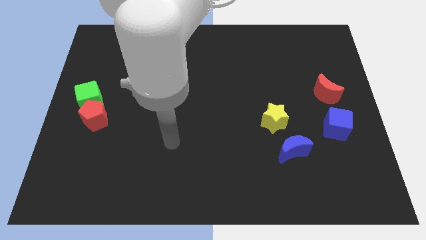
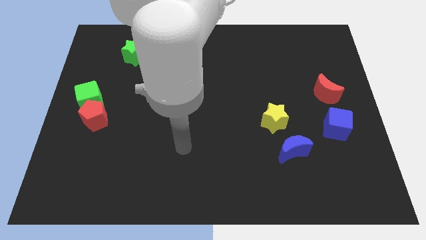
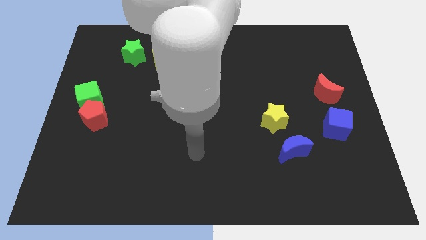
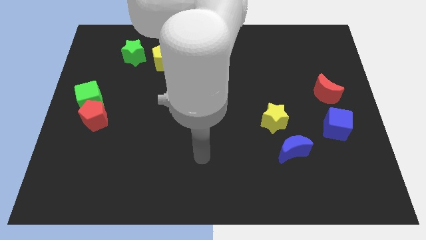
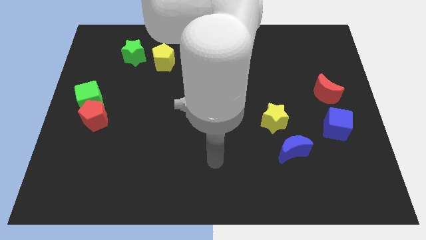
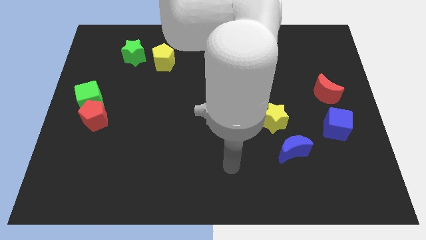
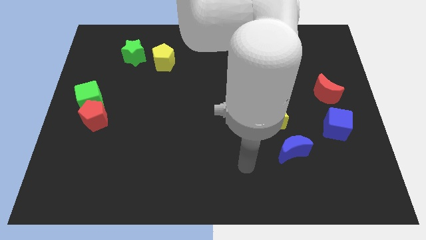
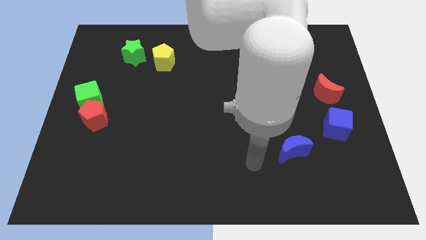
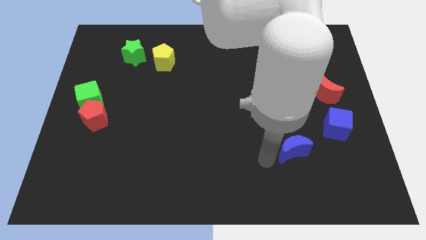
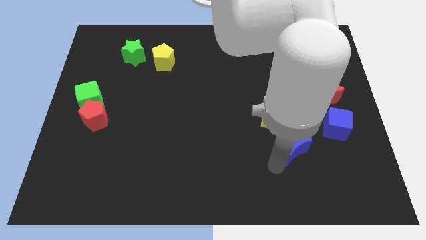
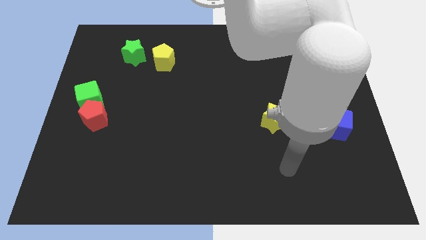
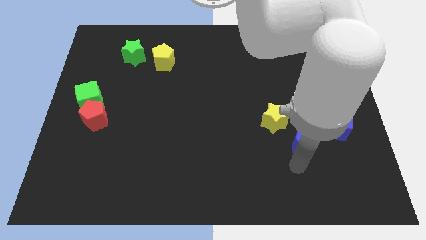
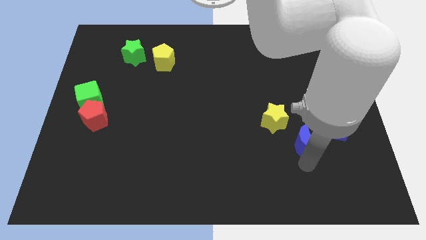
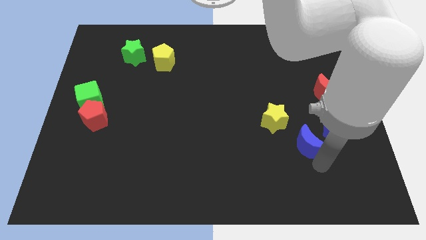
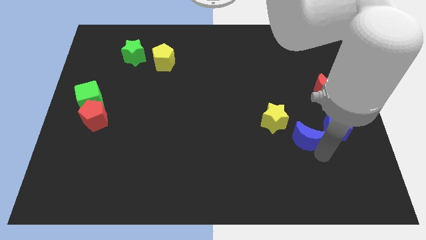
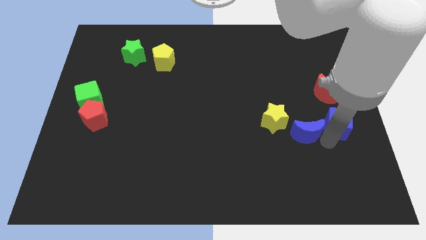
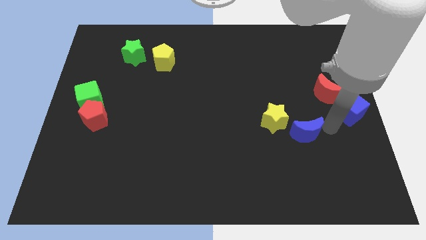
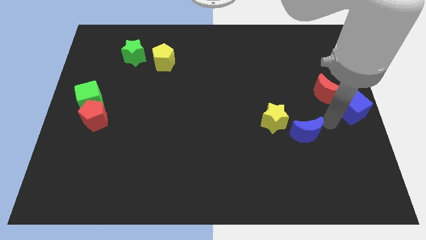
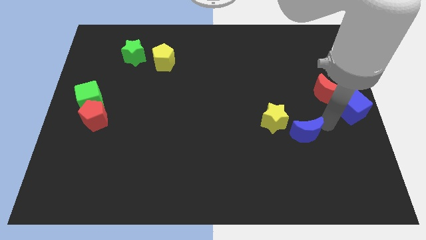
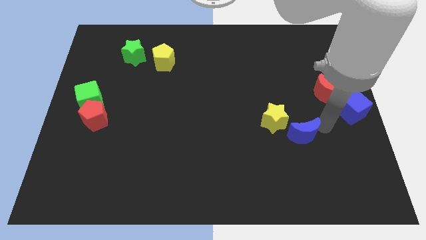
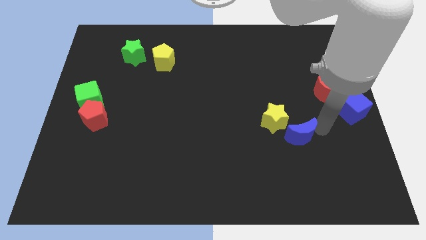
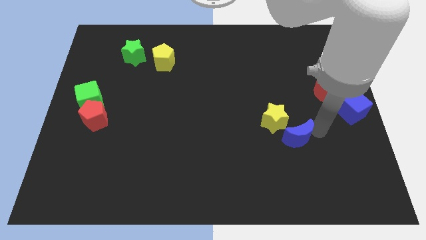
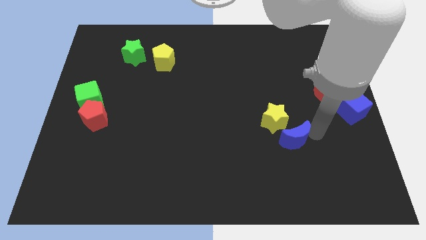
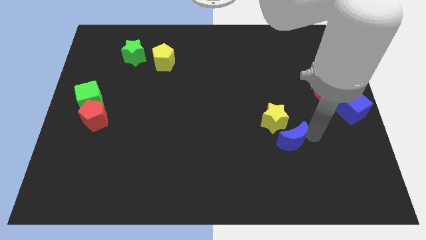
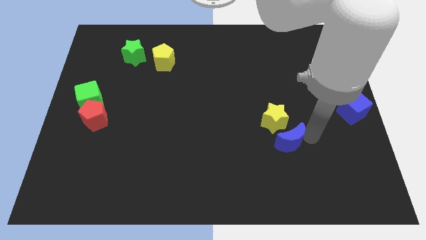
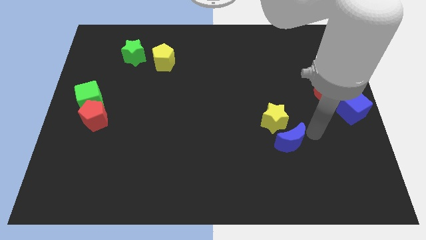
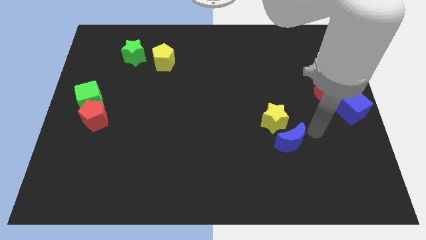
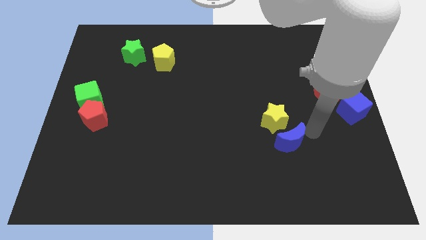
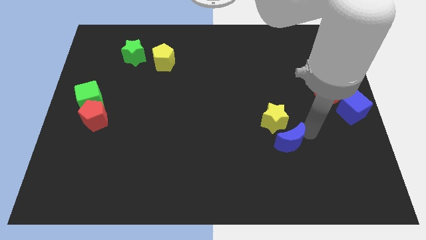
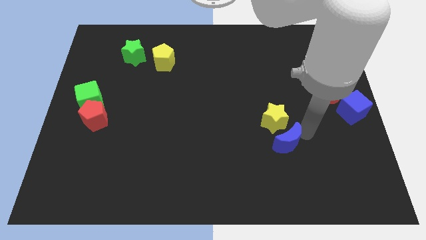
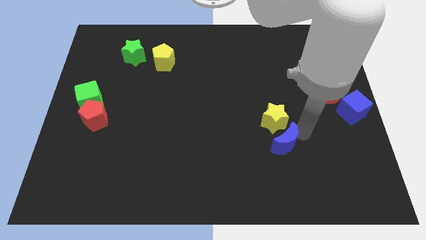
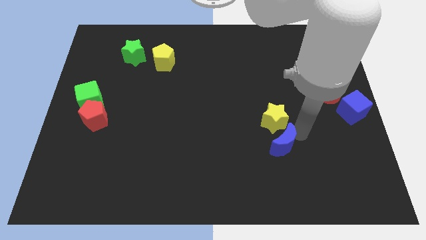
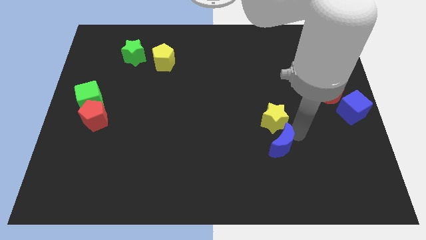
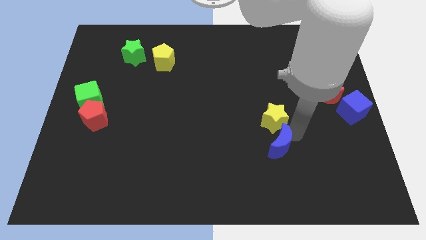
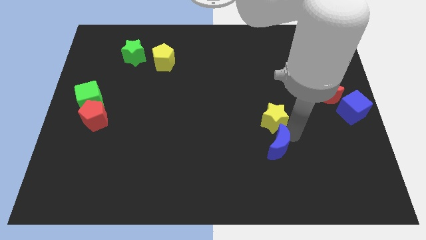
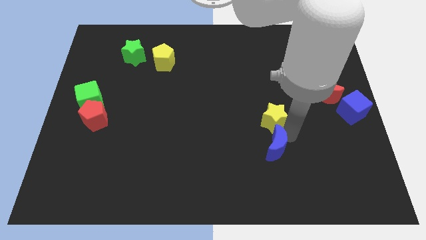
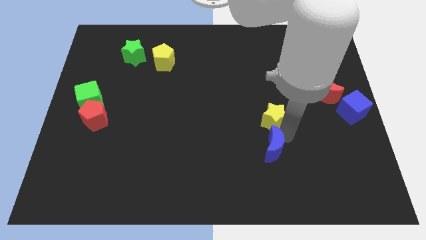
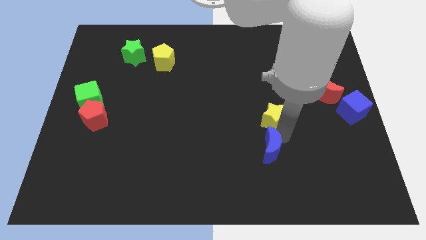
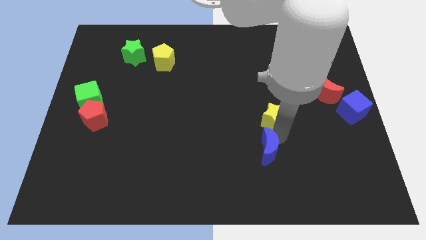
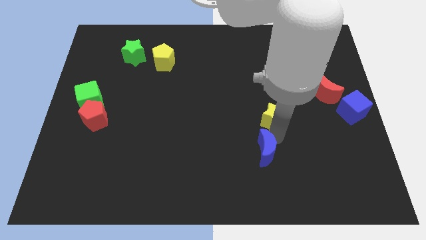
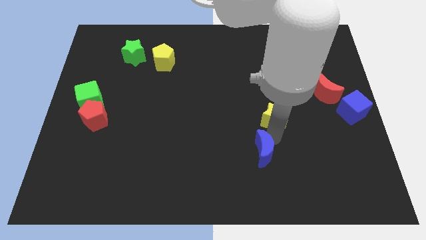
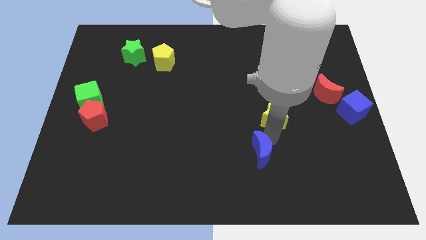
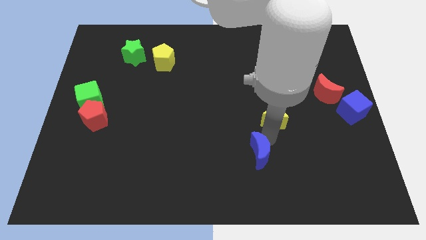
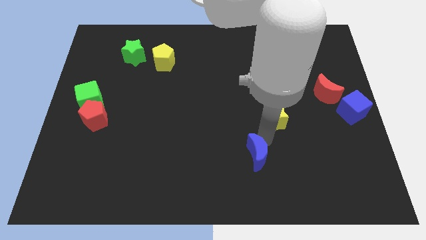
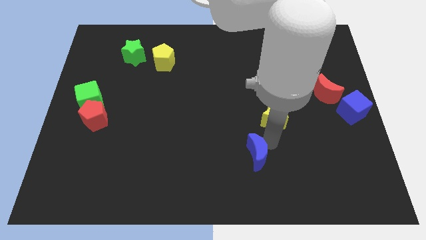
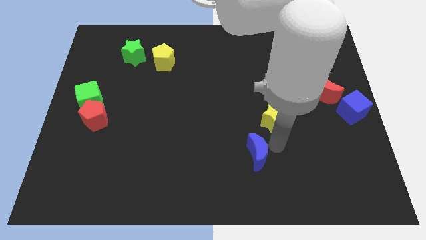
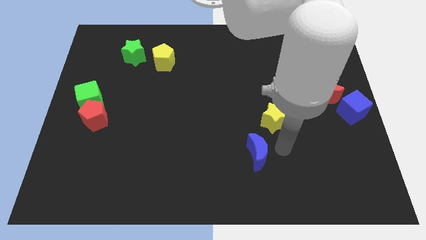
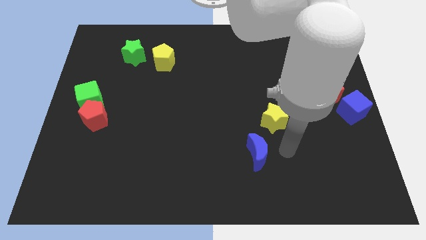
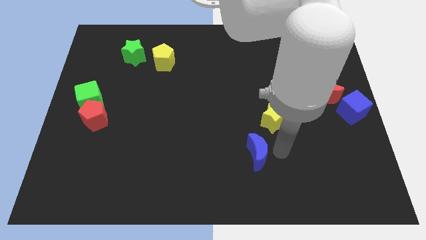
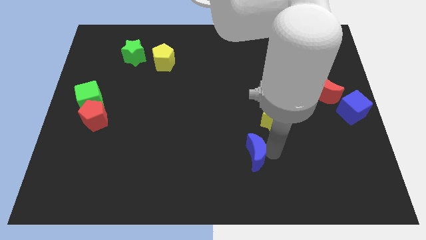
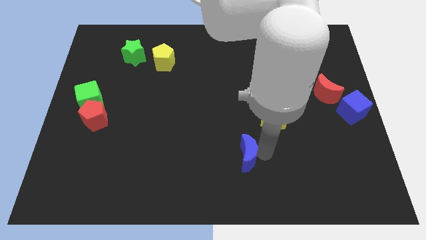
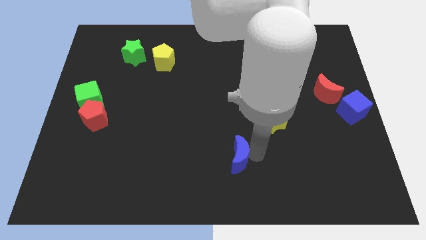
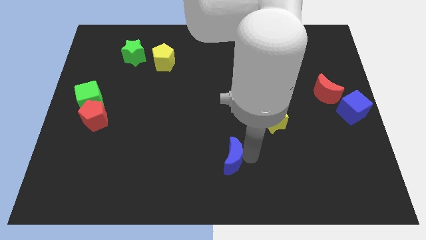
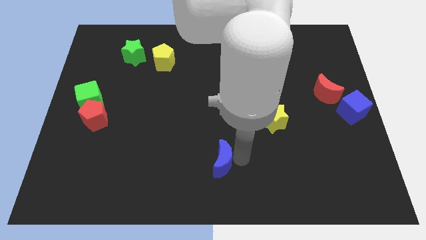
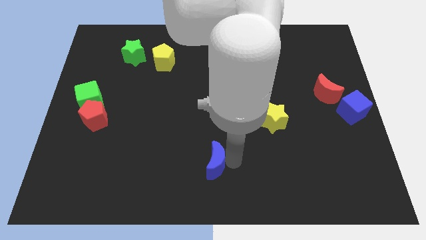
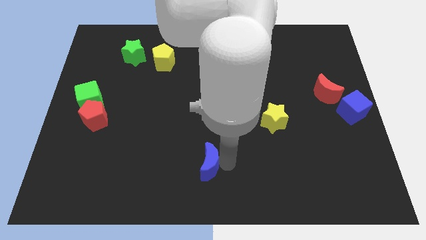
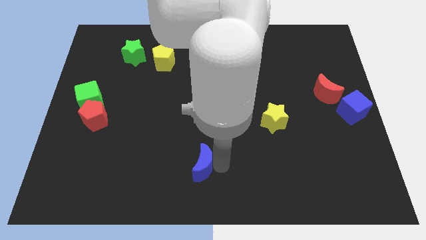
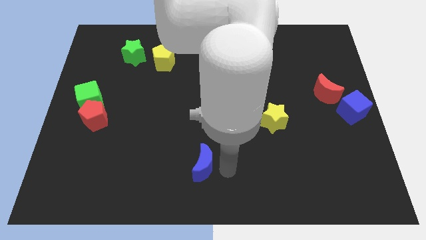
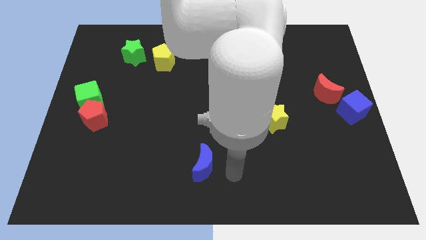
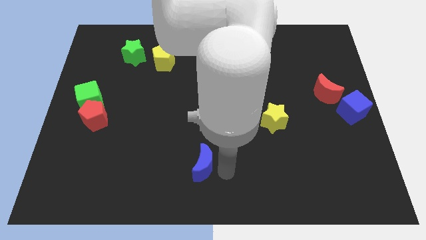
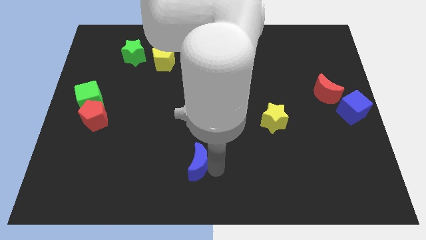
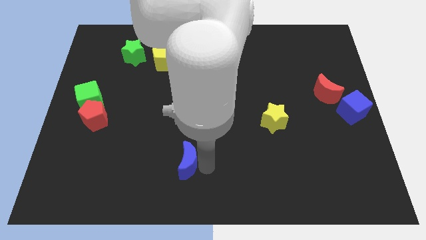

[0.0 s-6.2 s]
push the blue moon to the left

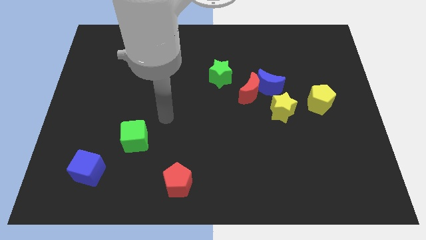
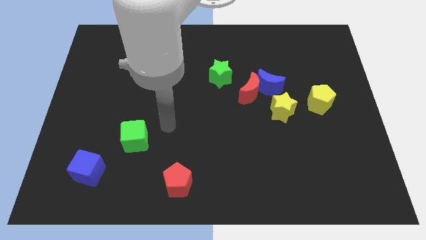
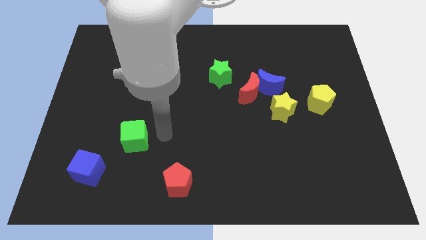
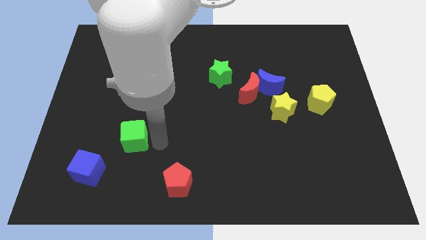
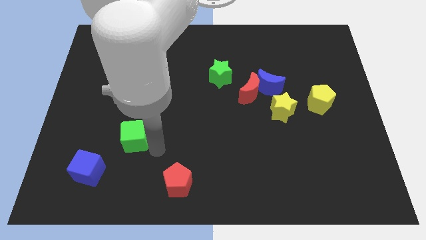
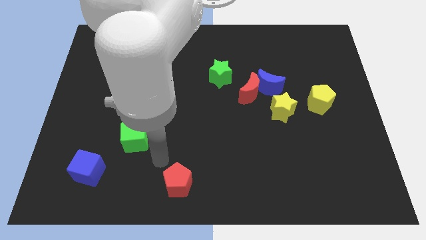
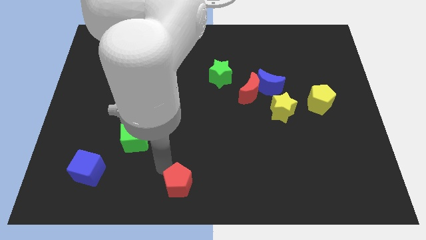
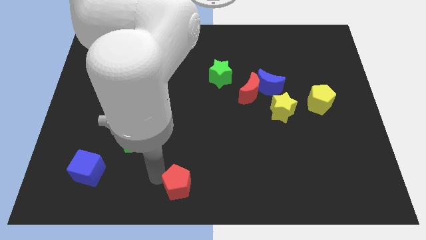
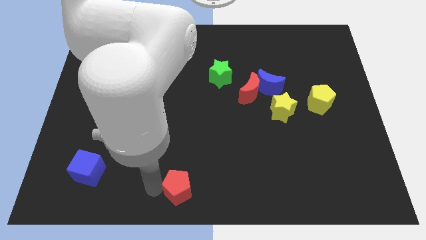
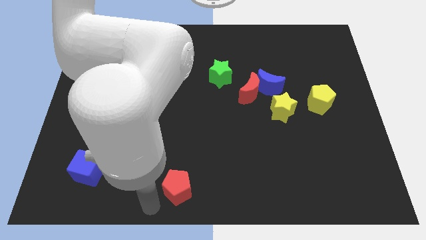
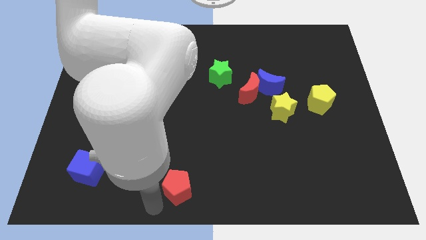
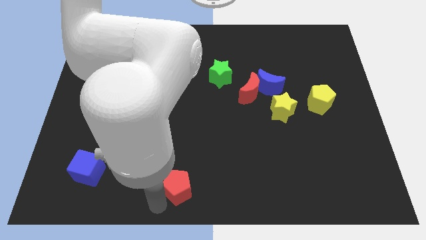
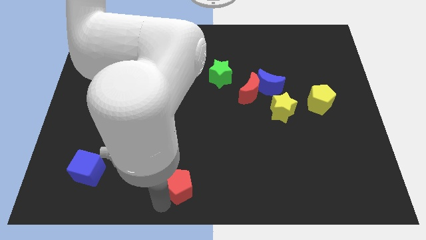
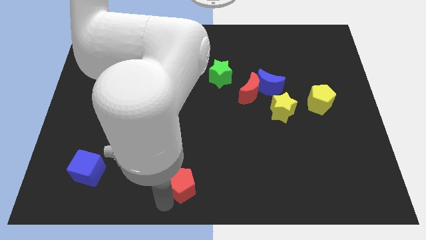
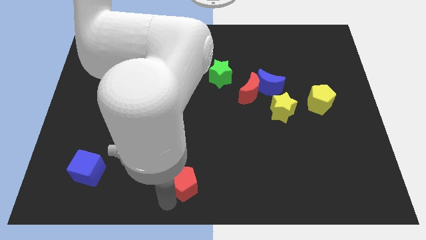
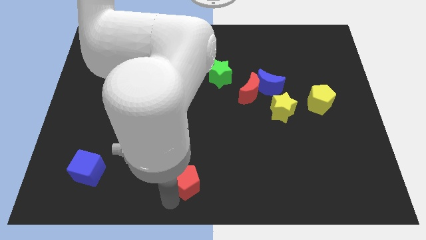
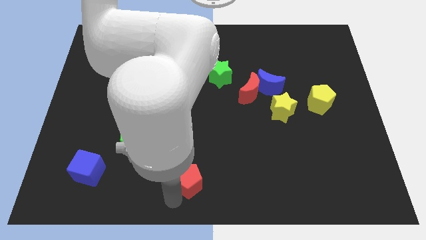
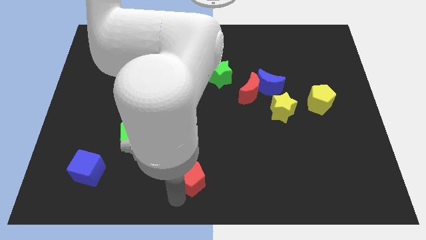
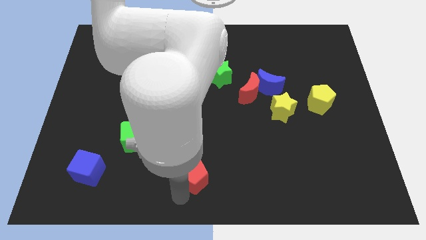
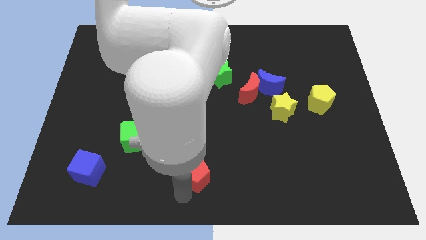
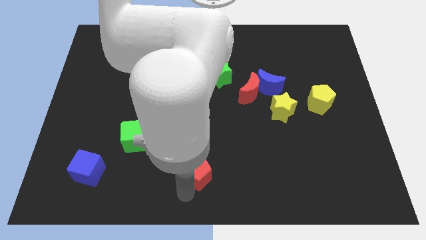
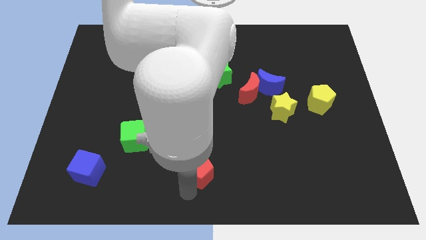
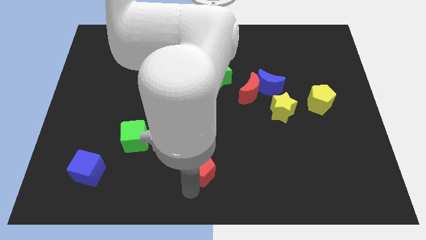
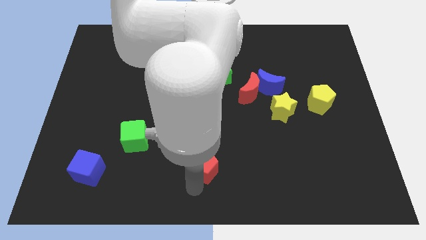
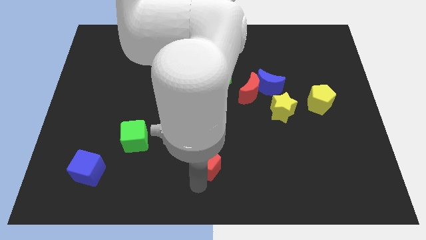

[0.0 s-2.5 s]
slightly slide the red pentagon diagonally up and right
